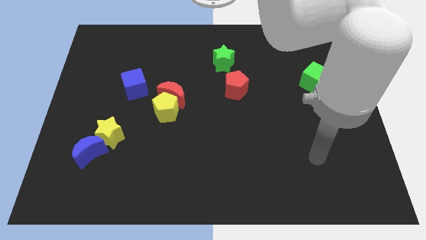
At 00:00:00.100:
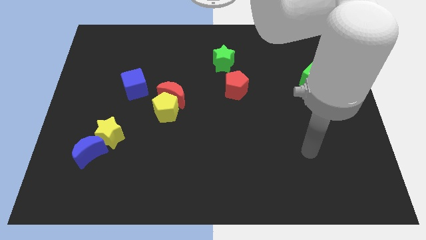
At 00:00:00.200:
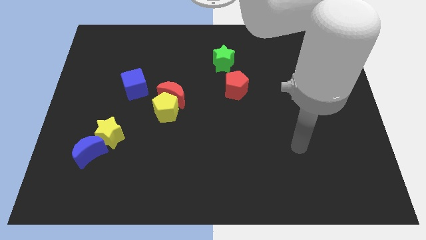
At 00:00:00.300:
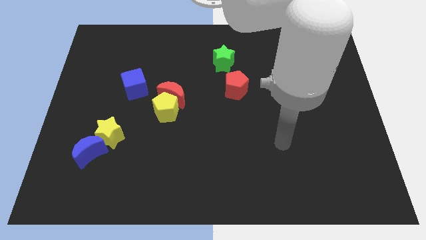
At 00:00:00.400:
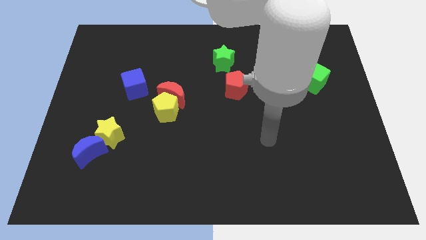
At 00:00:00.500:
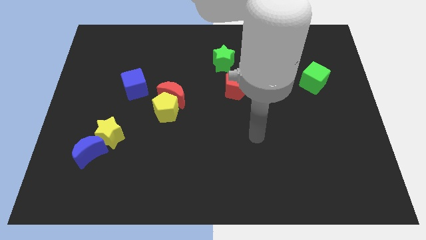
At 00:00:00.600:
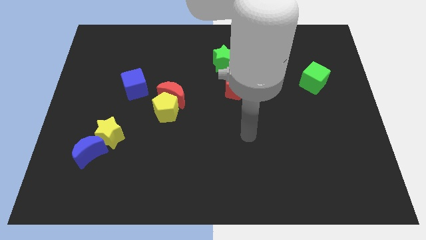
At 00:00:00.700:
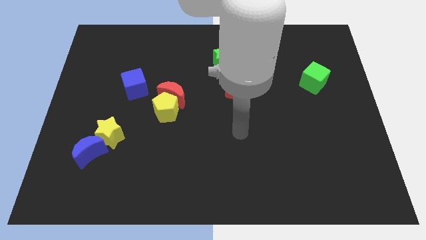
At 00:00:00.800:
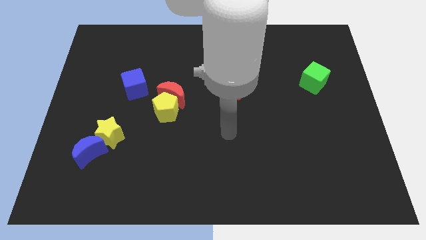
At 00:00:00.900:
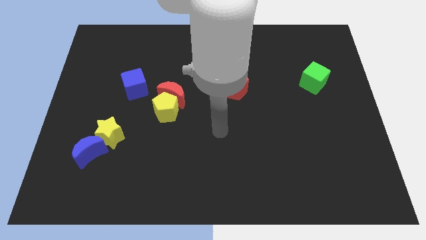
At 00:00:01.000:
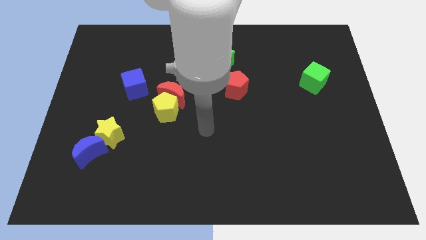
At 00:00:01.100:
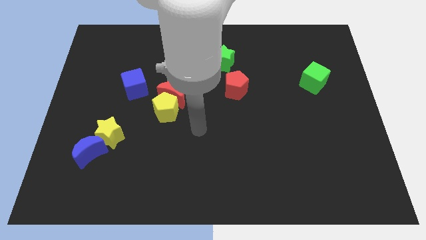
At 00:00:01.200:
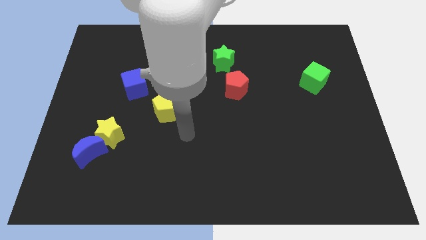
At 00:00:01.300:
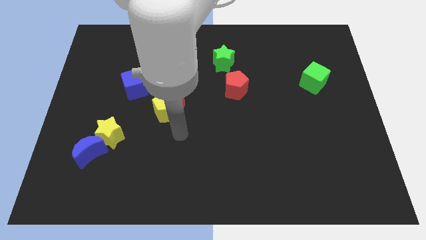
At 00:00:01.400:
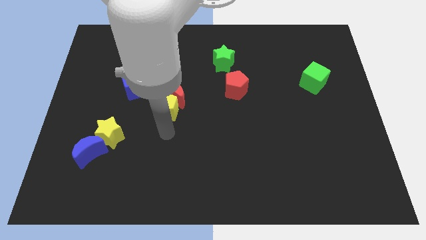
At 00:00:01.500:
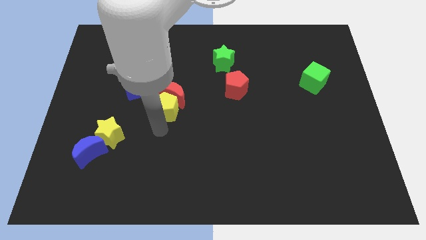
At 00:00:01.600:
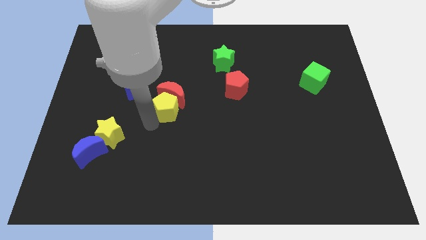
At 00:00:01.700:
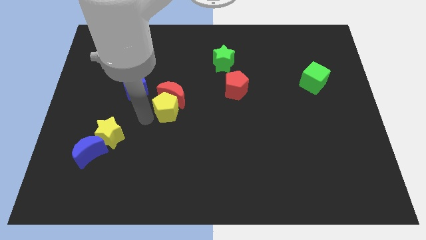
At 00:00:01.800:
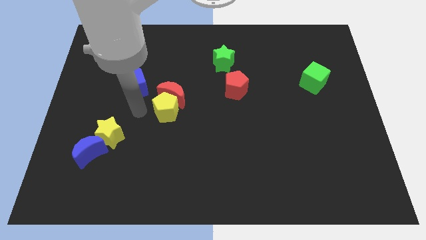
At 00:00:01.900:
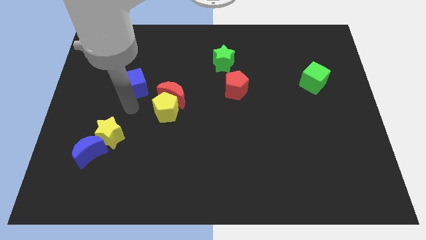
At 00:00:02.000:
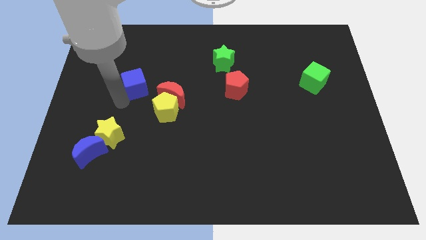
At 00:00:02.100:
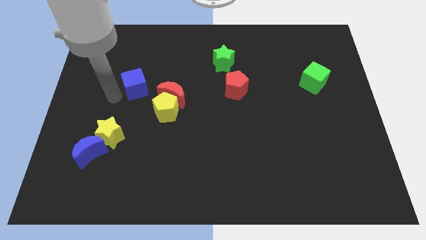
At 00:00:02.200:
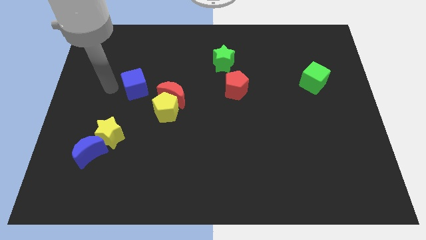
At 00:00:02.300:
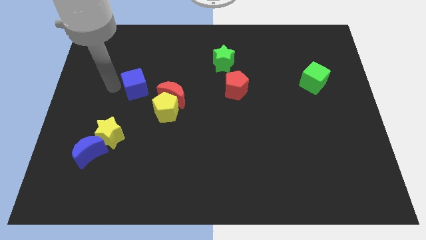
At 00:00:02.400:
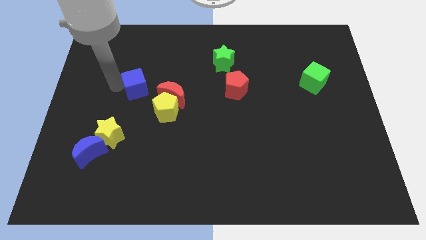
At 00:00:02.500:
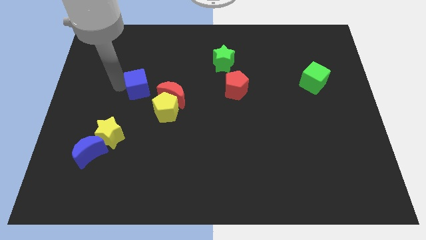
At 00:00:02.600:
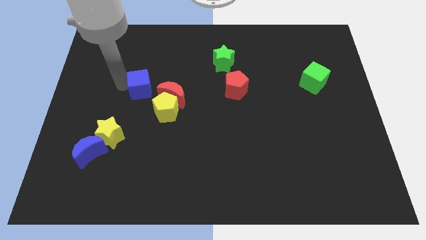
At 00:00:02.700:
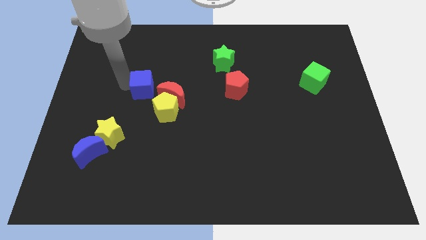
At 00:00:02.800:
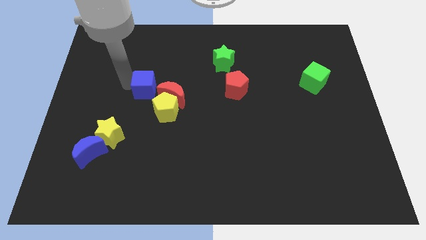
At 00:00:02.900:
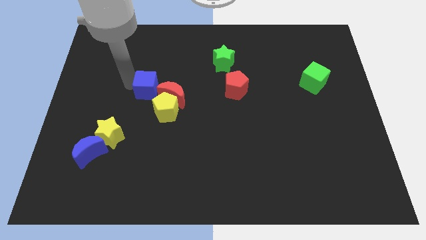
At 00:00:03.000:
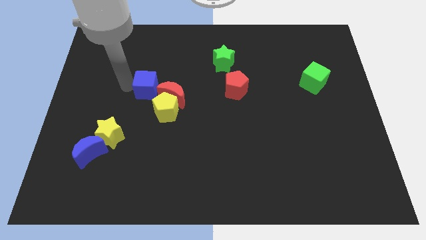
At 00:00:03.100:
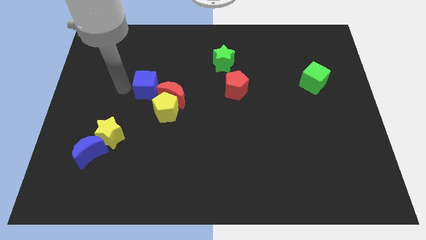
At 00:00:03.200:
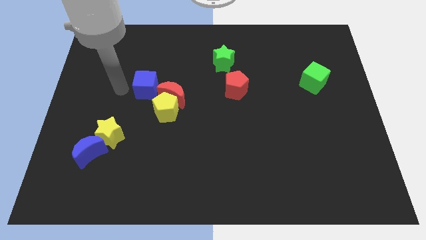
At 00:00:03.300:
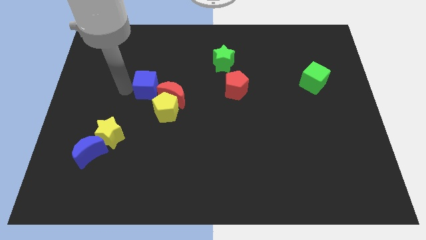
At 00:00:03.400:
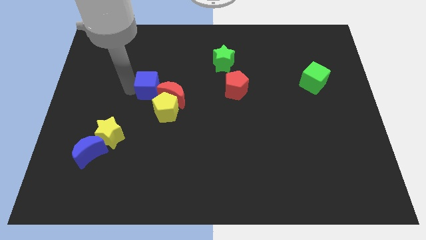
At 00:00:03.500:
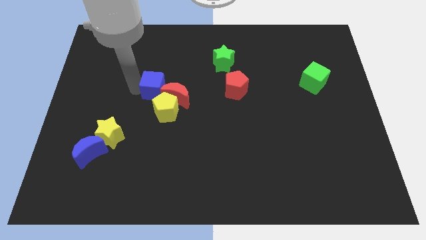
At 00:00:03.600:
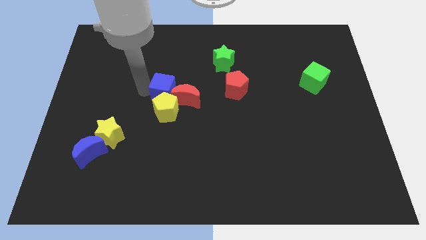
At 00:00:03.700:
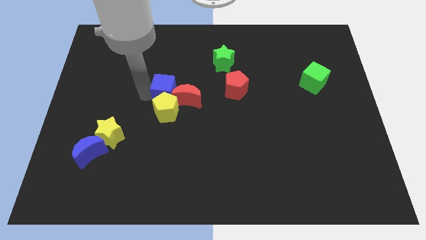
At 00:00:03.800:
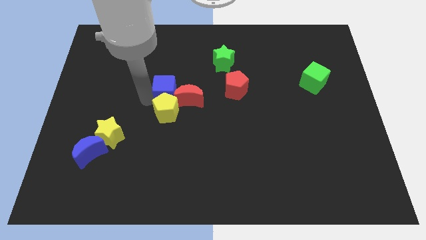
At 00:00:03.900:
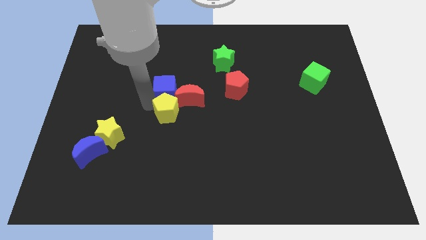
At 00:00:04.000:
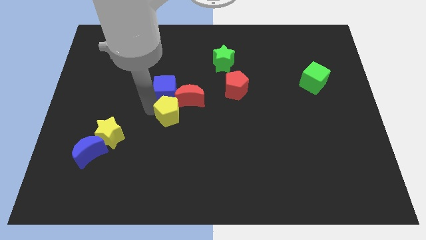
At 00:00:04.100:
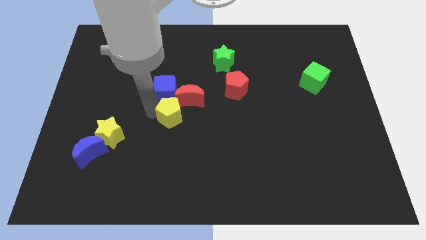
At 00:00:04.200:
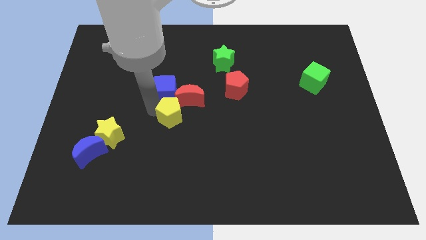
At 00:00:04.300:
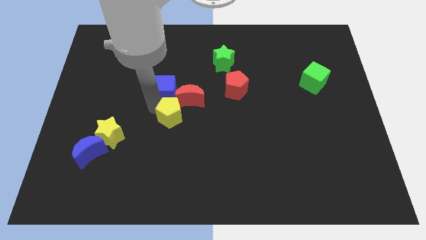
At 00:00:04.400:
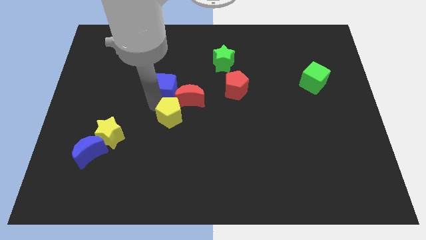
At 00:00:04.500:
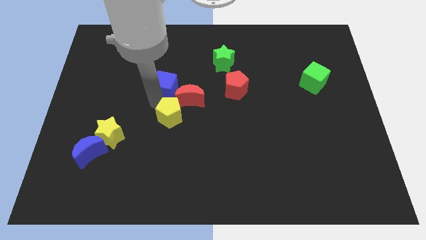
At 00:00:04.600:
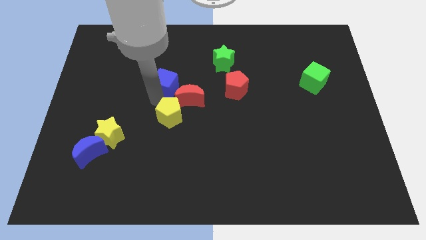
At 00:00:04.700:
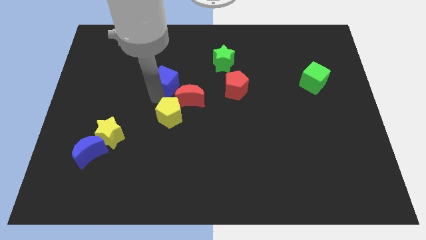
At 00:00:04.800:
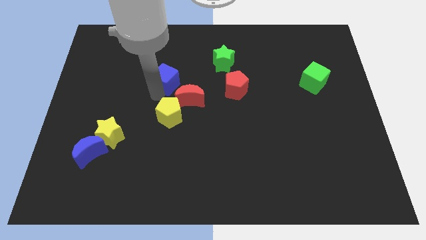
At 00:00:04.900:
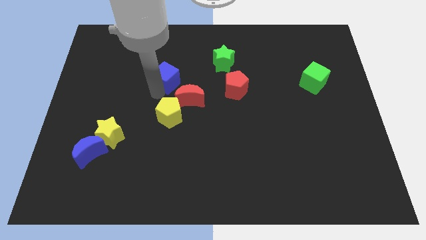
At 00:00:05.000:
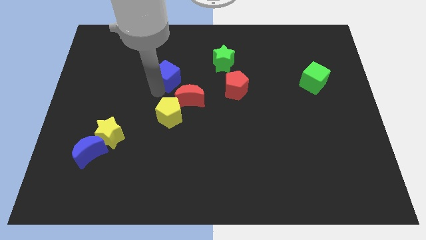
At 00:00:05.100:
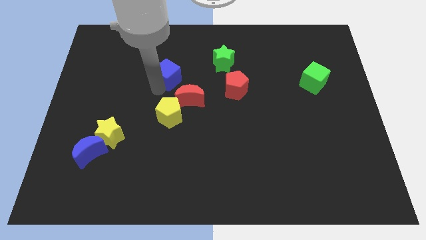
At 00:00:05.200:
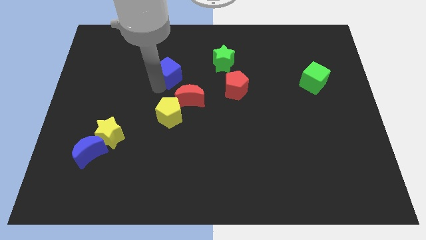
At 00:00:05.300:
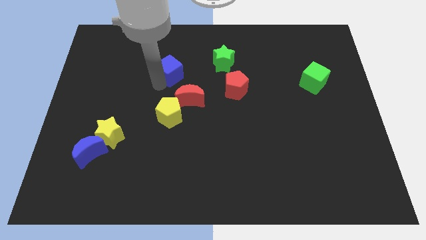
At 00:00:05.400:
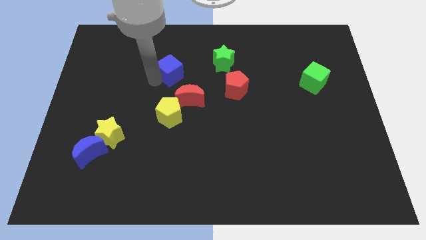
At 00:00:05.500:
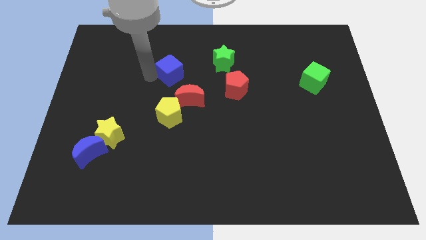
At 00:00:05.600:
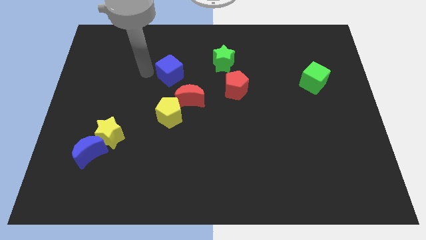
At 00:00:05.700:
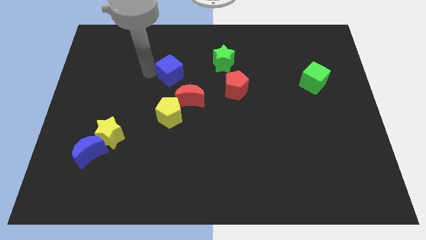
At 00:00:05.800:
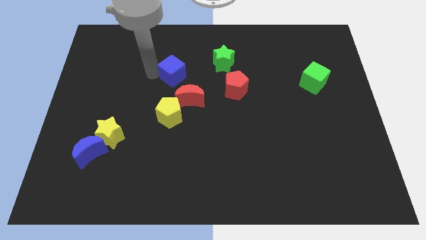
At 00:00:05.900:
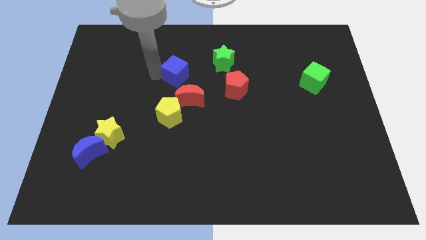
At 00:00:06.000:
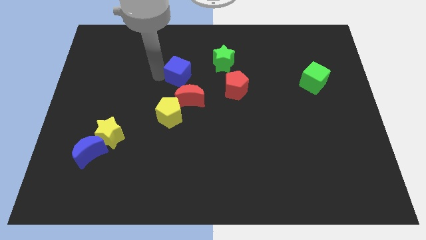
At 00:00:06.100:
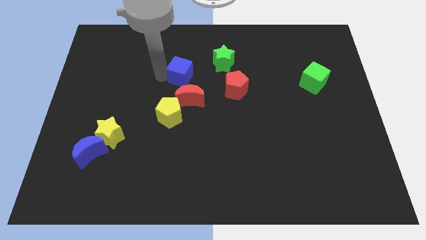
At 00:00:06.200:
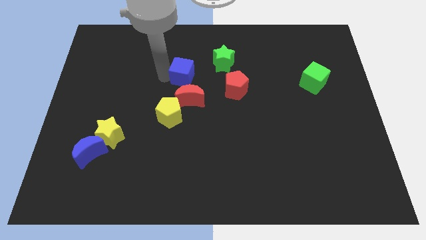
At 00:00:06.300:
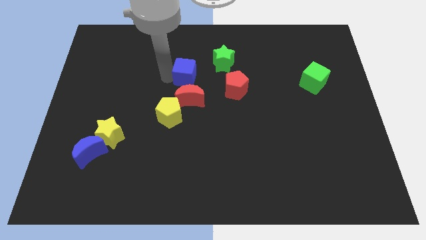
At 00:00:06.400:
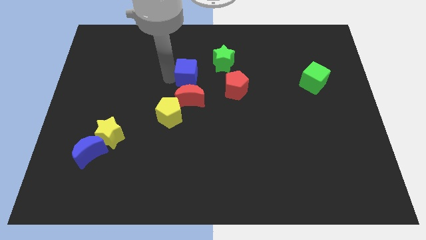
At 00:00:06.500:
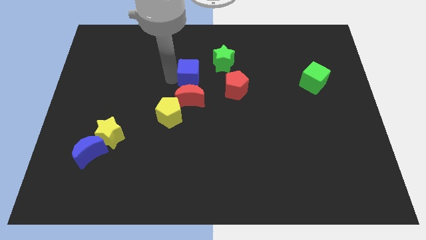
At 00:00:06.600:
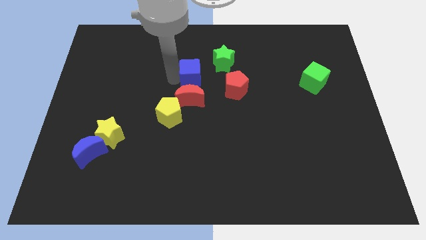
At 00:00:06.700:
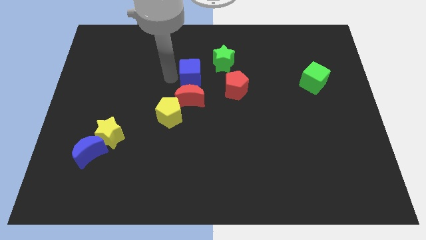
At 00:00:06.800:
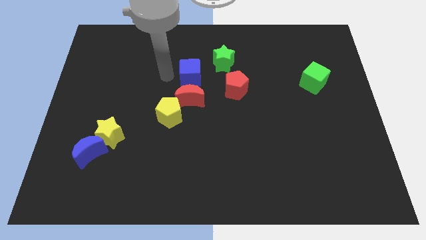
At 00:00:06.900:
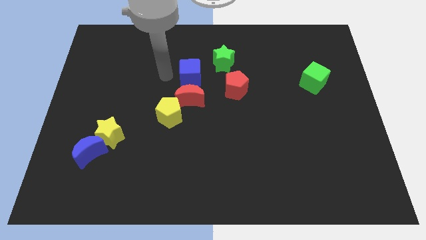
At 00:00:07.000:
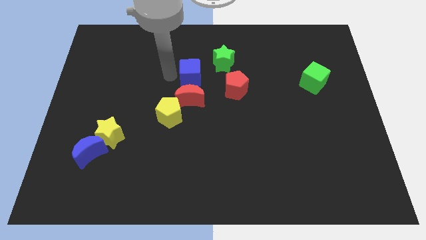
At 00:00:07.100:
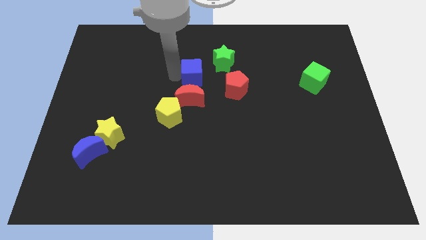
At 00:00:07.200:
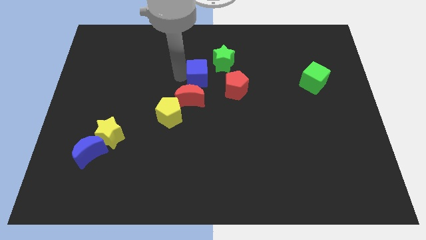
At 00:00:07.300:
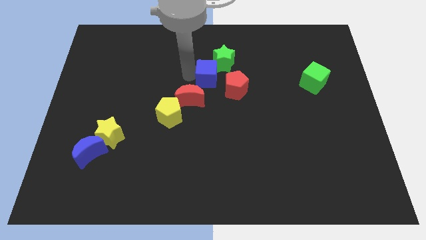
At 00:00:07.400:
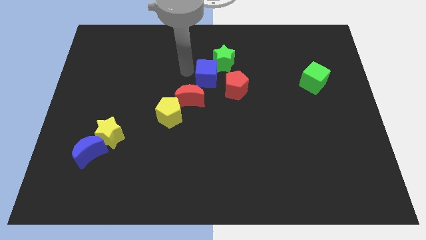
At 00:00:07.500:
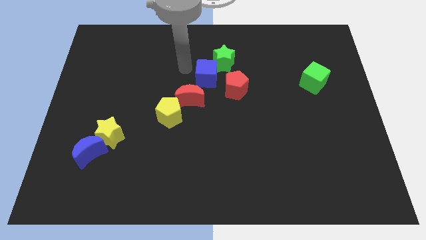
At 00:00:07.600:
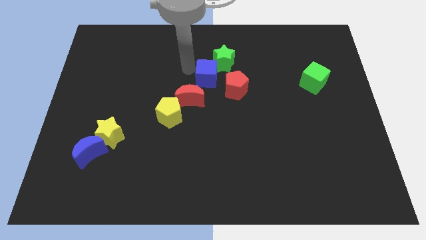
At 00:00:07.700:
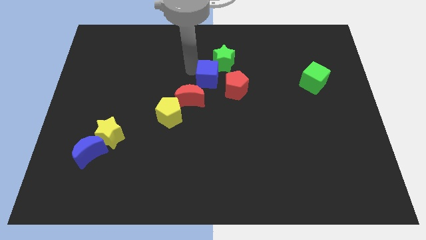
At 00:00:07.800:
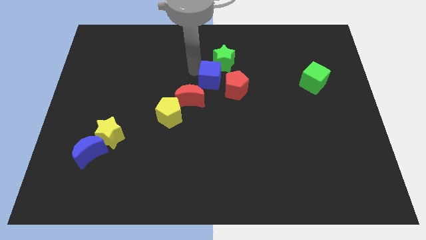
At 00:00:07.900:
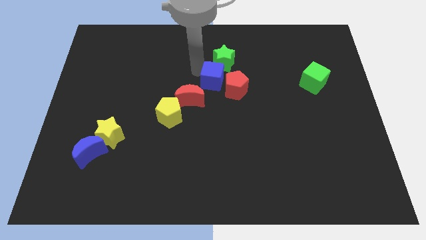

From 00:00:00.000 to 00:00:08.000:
put the blue cube towards the red pentagon
